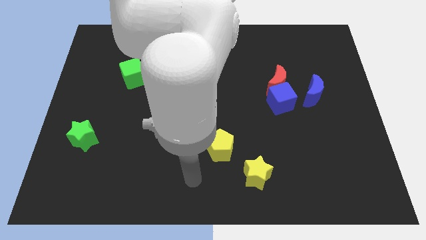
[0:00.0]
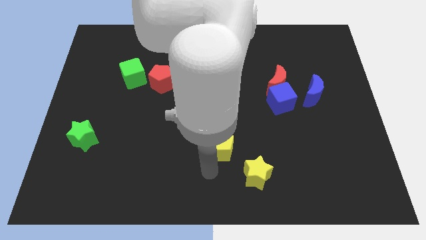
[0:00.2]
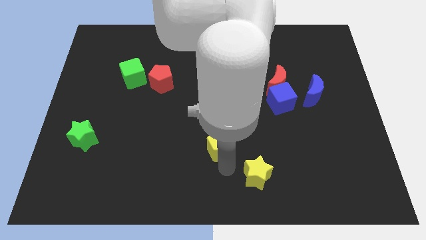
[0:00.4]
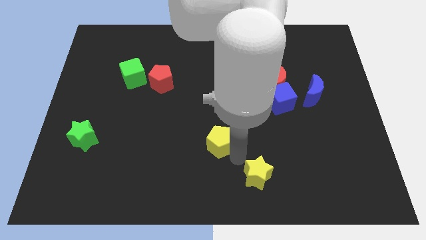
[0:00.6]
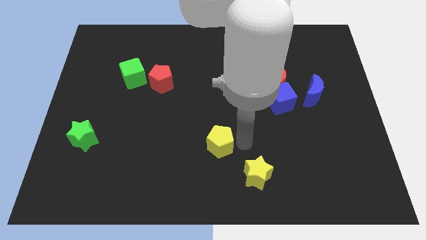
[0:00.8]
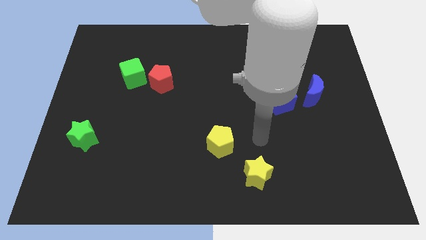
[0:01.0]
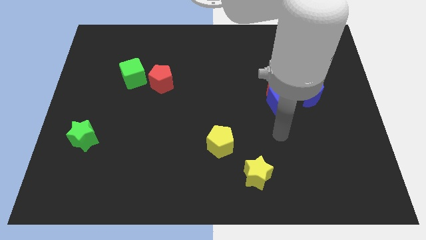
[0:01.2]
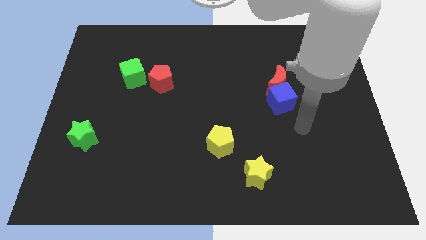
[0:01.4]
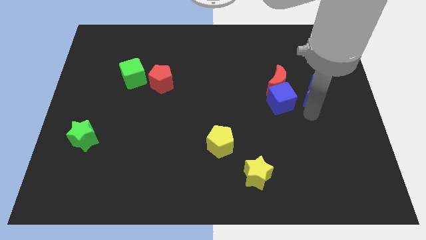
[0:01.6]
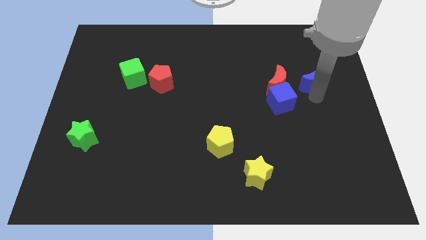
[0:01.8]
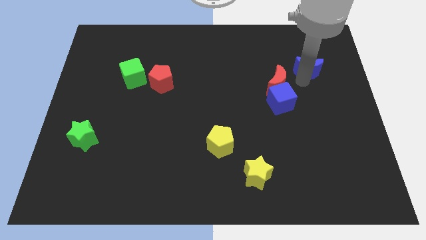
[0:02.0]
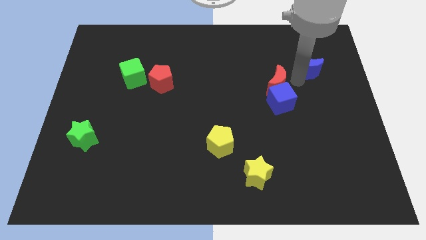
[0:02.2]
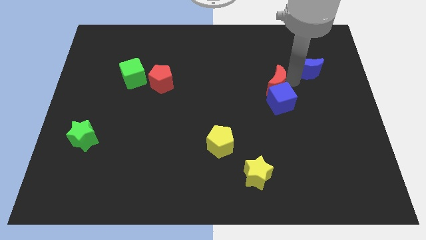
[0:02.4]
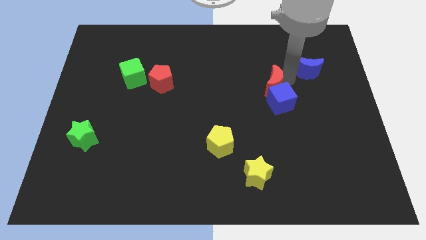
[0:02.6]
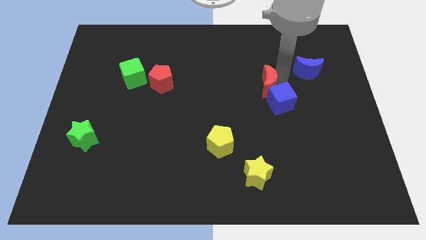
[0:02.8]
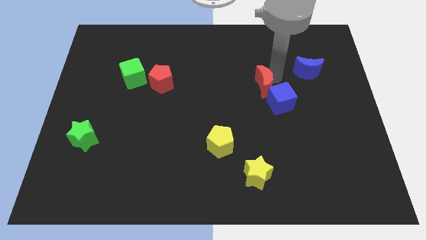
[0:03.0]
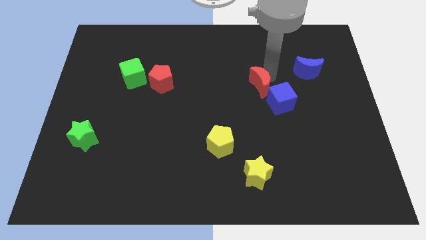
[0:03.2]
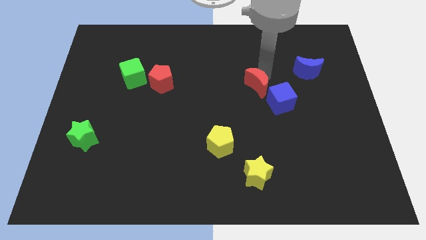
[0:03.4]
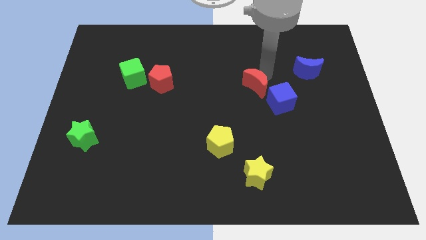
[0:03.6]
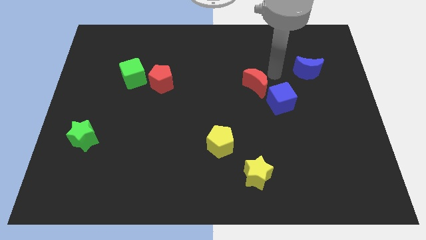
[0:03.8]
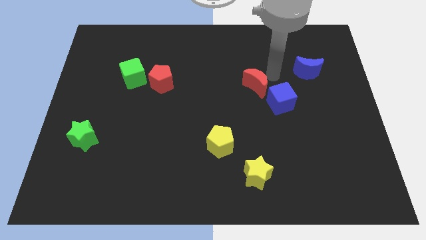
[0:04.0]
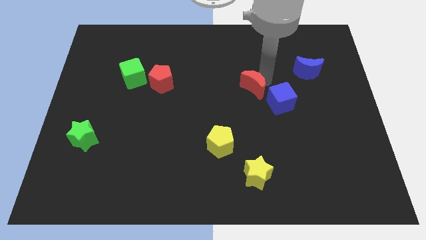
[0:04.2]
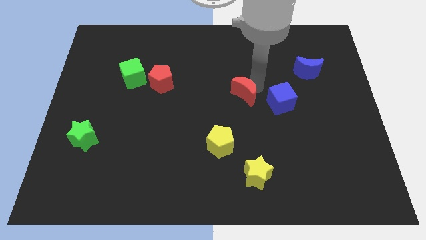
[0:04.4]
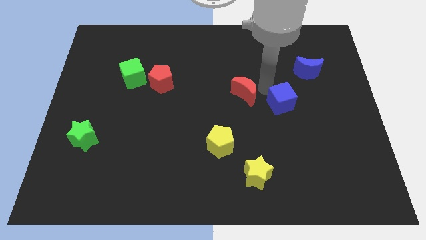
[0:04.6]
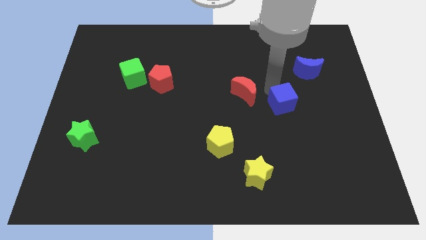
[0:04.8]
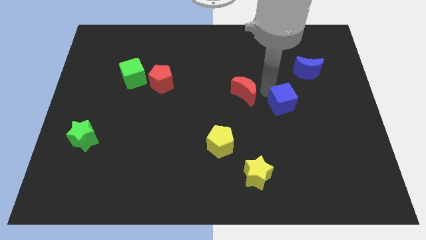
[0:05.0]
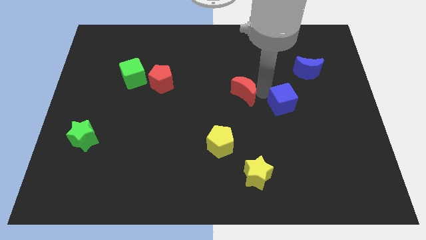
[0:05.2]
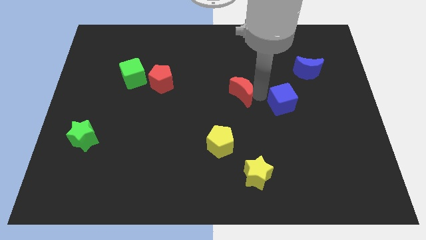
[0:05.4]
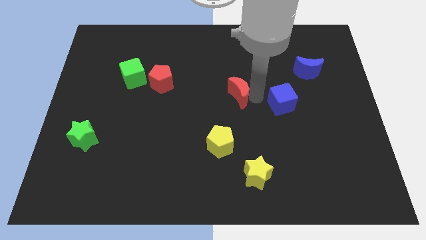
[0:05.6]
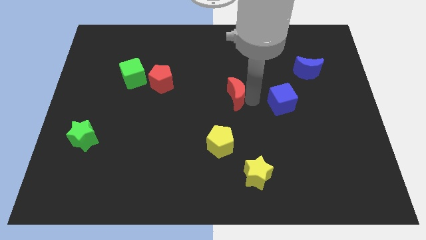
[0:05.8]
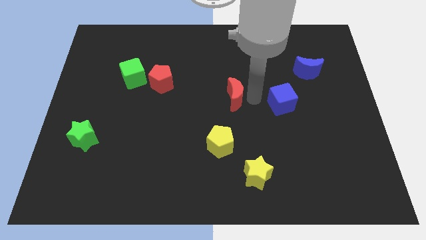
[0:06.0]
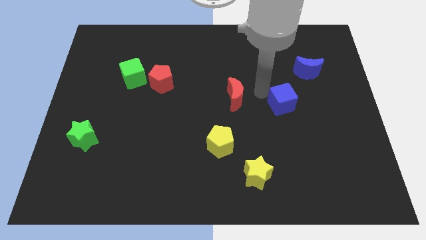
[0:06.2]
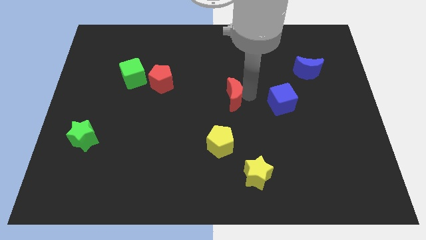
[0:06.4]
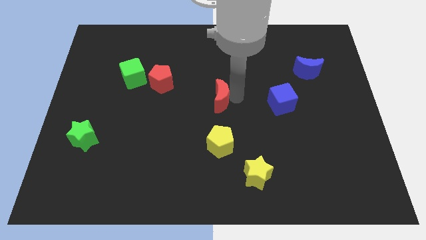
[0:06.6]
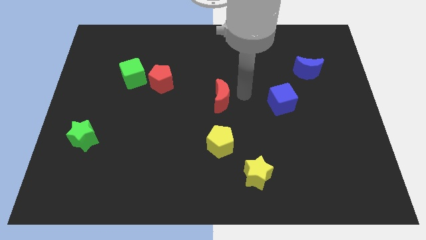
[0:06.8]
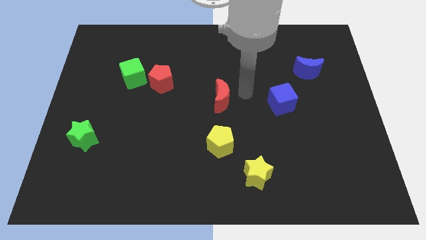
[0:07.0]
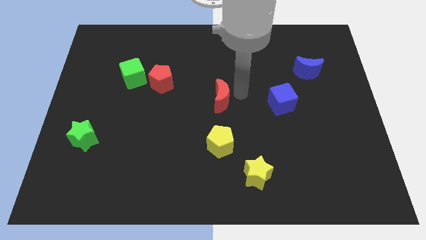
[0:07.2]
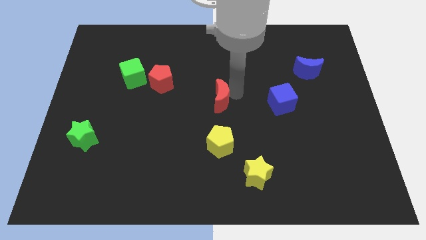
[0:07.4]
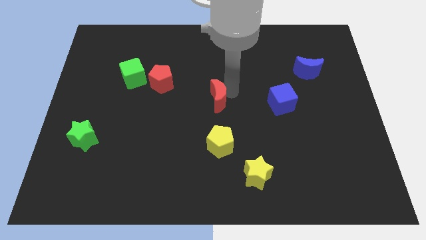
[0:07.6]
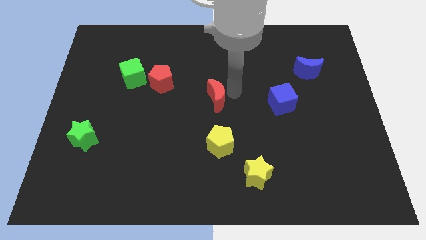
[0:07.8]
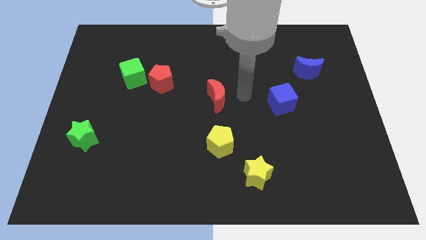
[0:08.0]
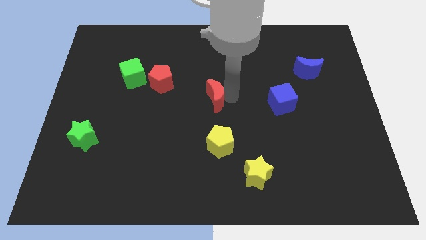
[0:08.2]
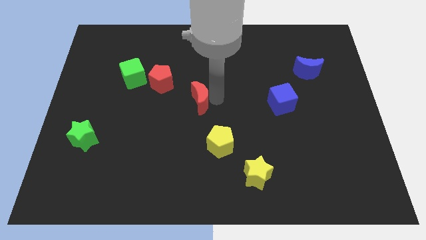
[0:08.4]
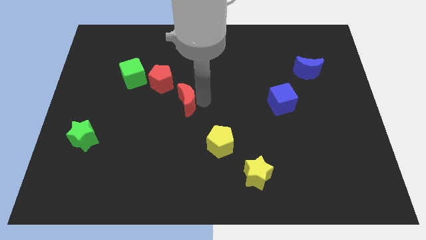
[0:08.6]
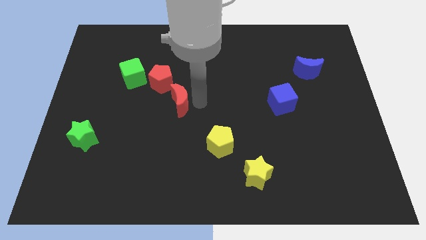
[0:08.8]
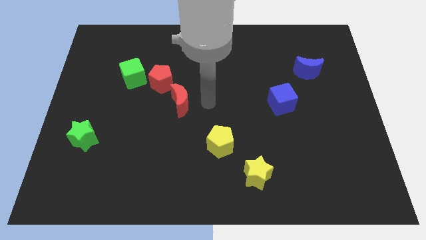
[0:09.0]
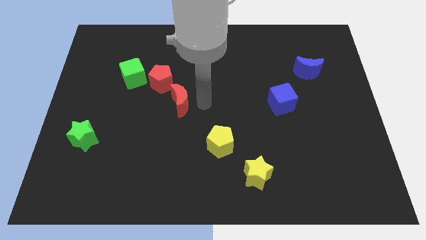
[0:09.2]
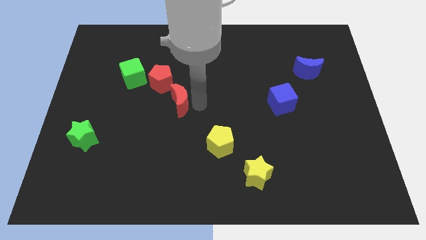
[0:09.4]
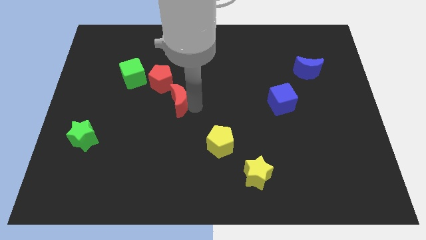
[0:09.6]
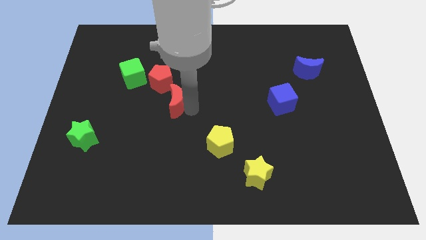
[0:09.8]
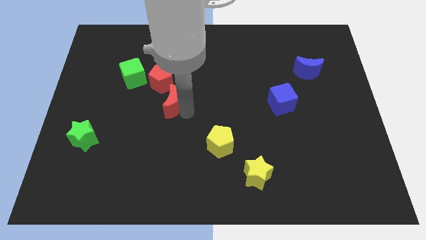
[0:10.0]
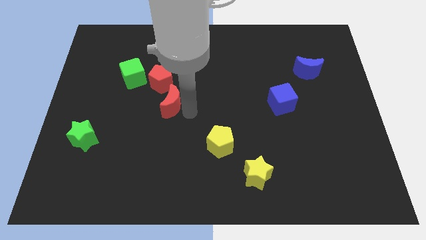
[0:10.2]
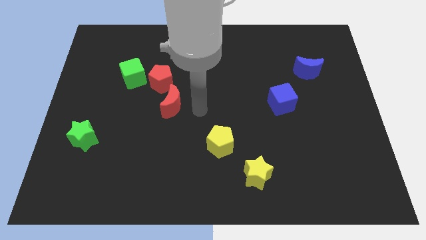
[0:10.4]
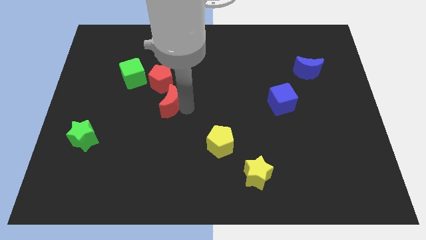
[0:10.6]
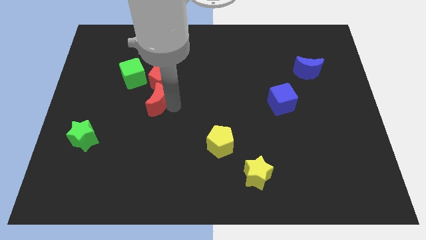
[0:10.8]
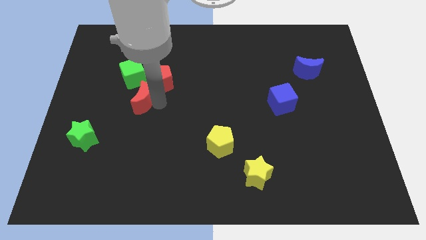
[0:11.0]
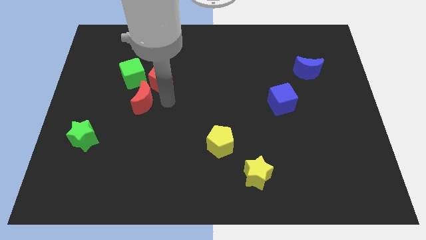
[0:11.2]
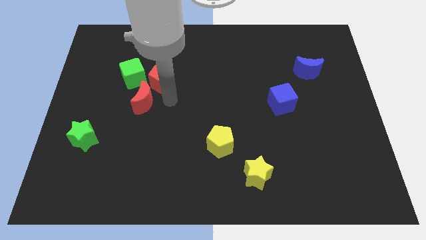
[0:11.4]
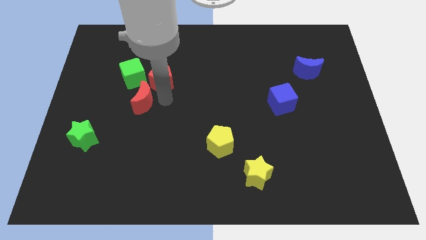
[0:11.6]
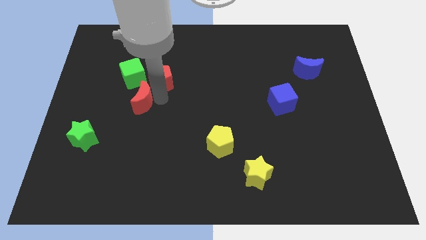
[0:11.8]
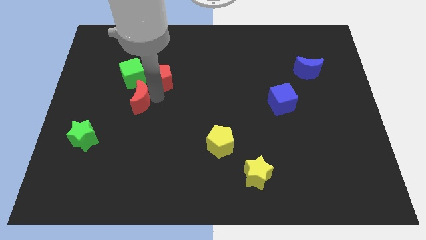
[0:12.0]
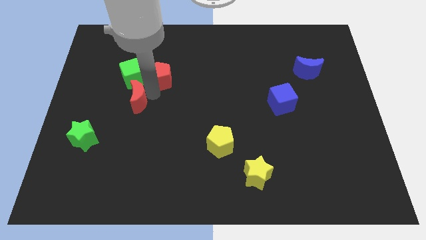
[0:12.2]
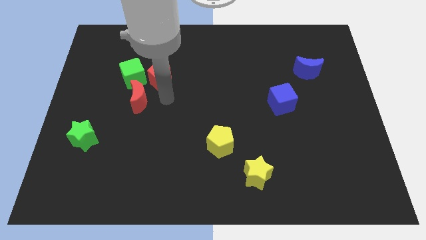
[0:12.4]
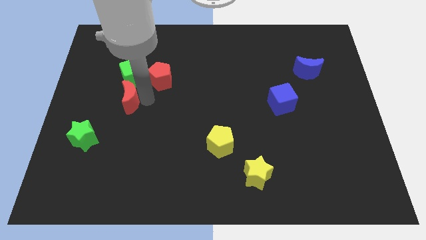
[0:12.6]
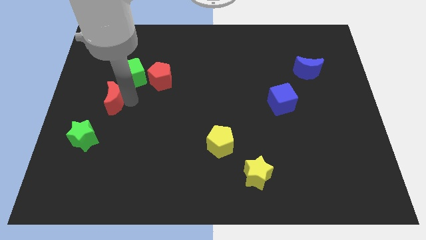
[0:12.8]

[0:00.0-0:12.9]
slide the red moon to the top of the green star
